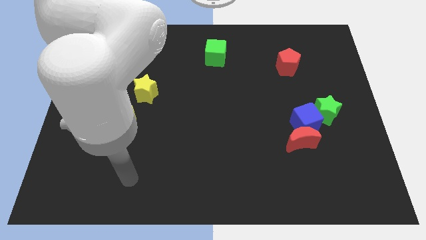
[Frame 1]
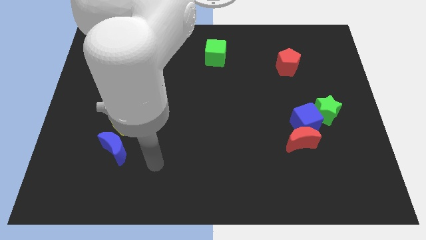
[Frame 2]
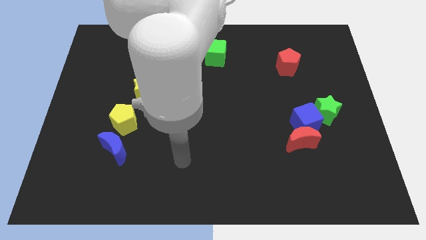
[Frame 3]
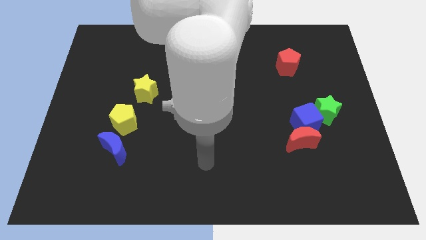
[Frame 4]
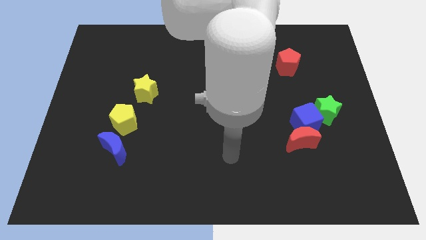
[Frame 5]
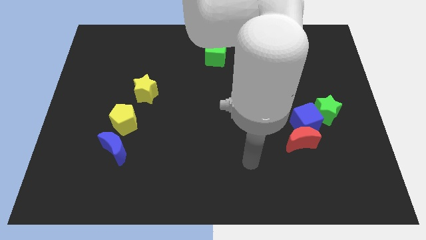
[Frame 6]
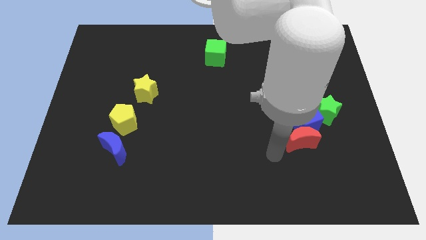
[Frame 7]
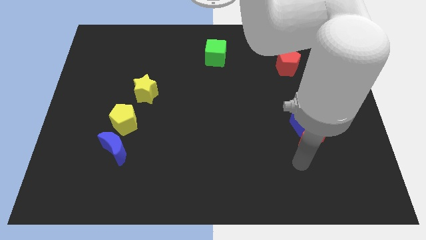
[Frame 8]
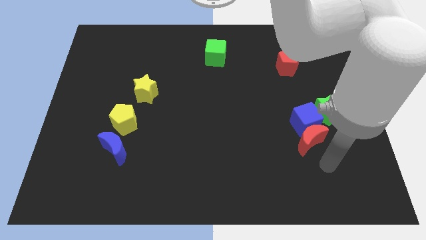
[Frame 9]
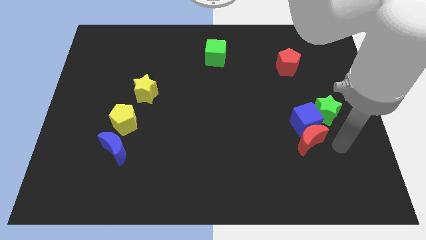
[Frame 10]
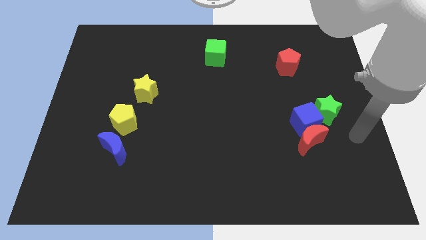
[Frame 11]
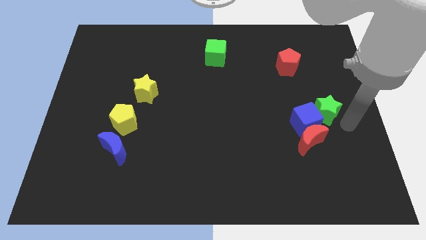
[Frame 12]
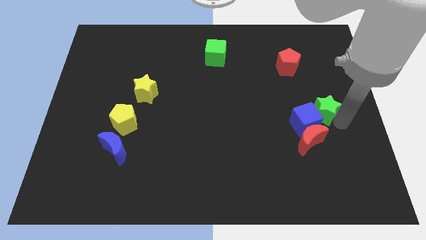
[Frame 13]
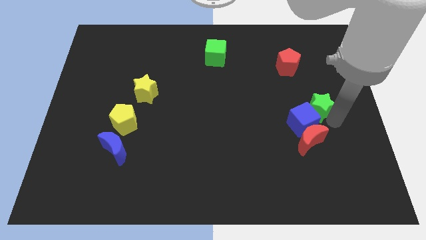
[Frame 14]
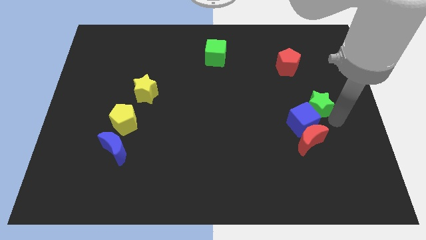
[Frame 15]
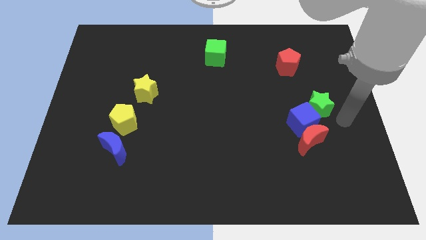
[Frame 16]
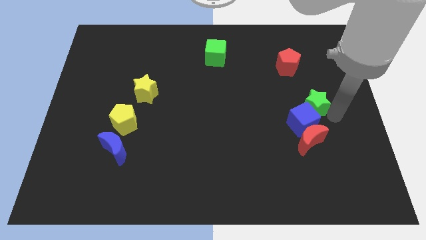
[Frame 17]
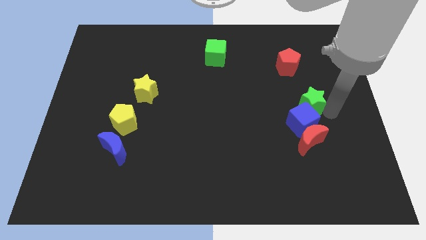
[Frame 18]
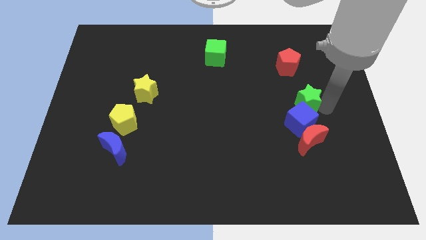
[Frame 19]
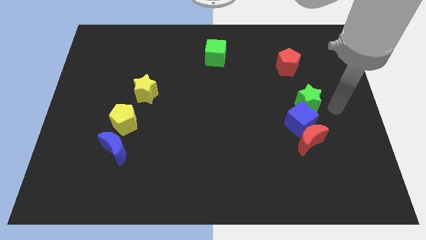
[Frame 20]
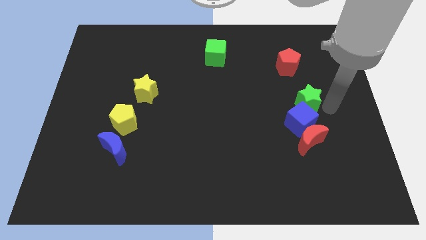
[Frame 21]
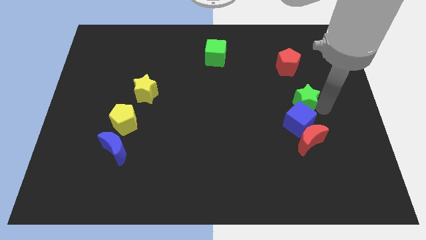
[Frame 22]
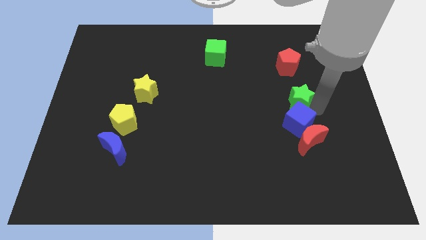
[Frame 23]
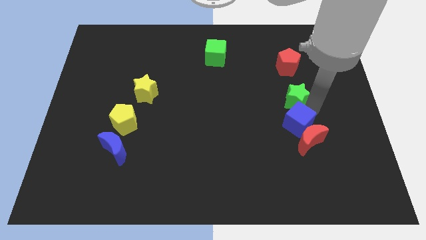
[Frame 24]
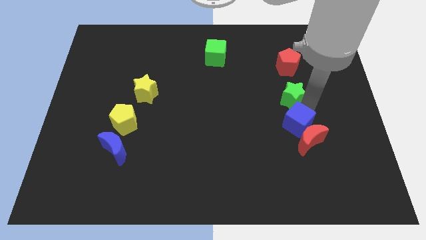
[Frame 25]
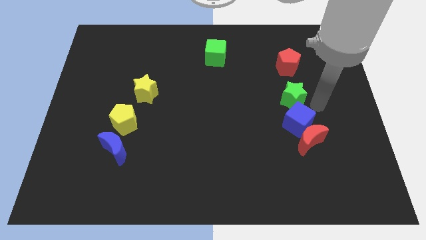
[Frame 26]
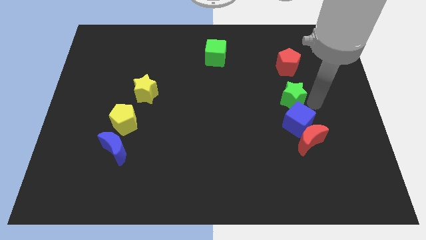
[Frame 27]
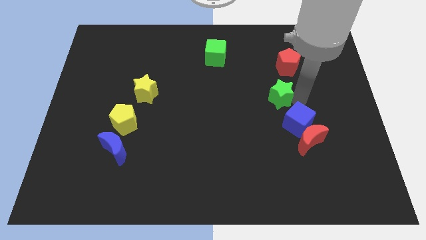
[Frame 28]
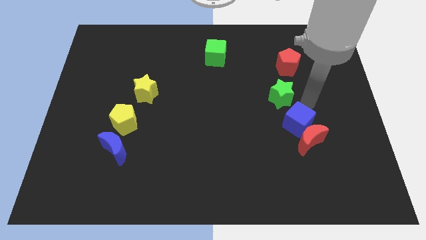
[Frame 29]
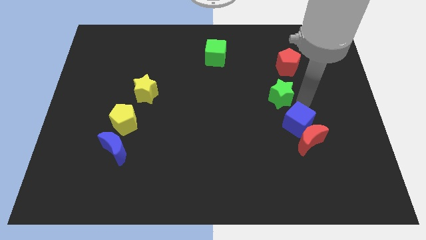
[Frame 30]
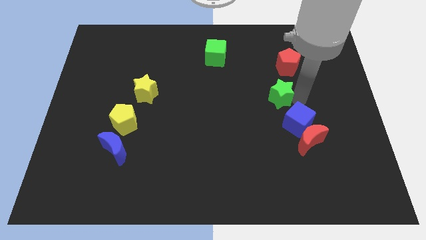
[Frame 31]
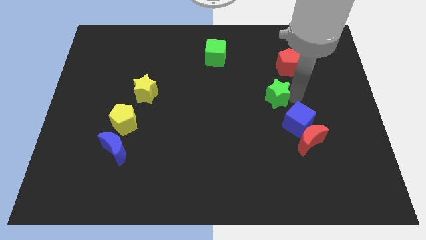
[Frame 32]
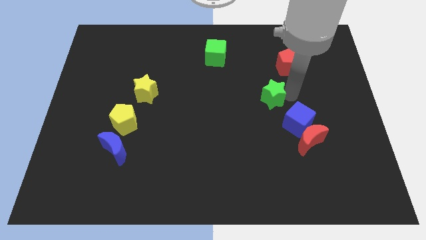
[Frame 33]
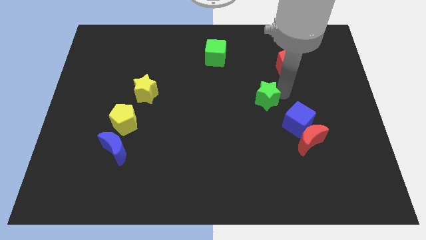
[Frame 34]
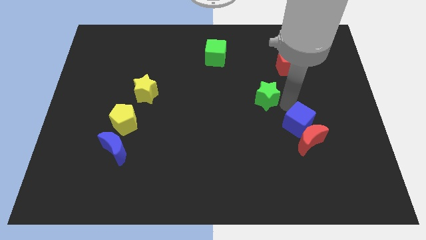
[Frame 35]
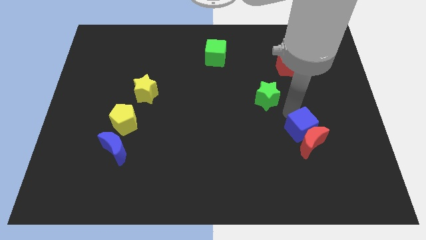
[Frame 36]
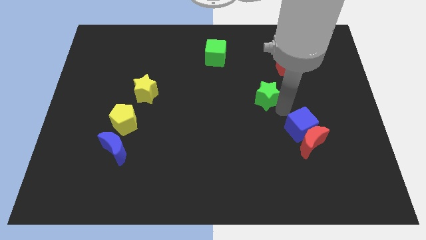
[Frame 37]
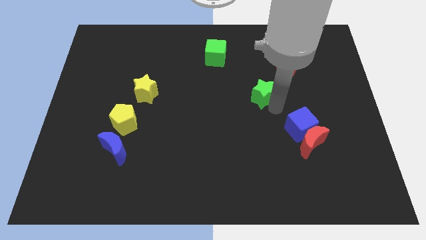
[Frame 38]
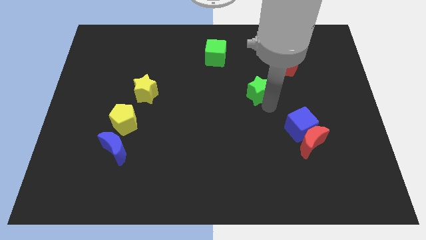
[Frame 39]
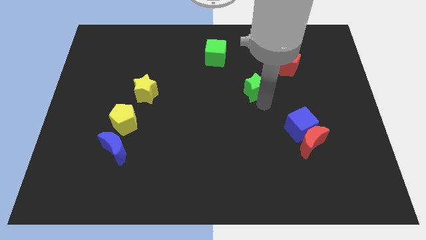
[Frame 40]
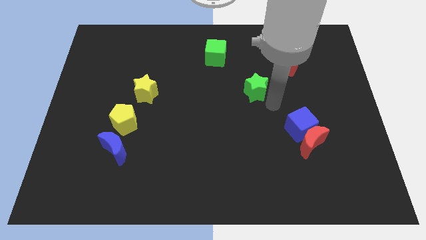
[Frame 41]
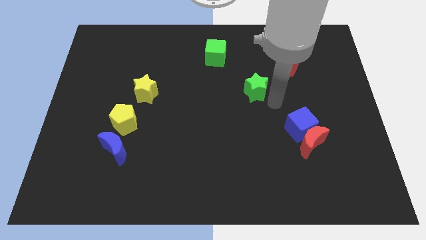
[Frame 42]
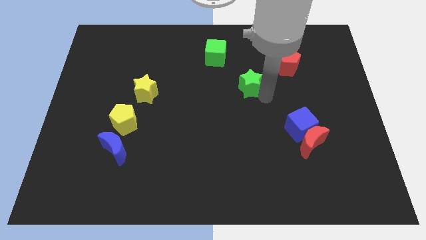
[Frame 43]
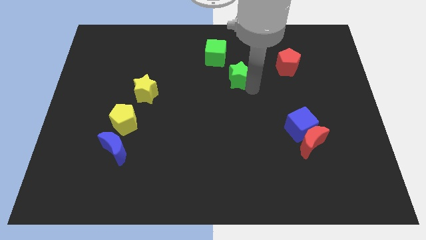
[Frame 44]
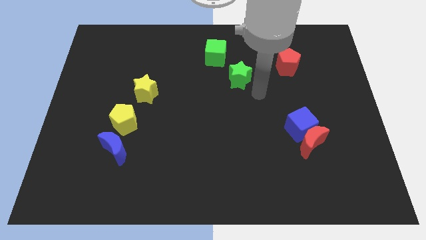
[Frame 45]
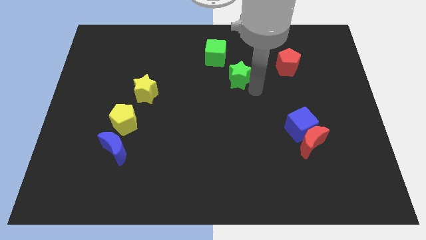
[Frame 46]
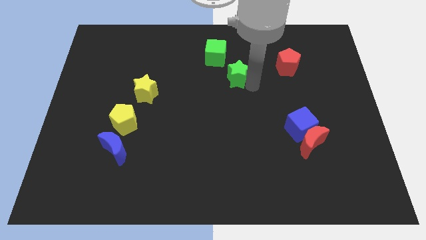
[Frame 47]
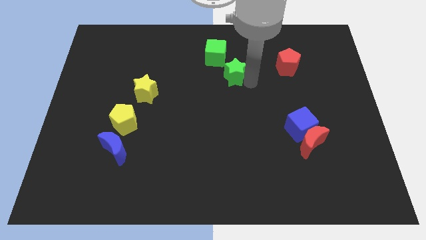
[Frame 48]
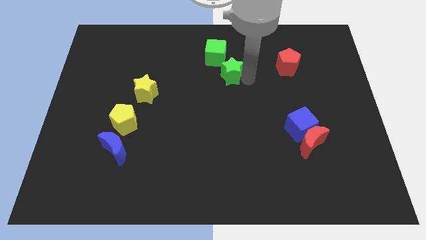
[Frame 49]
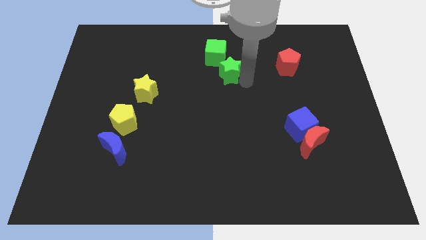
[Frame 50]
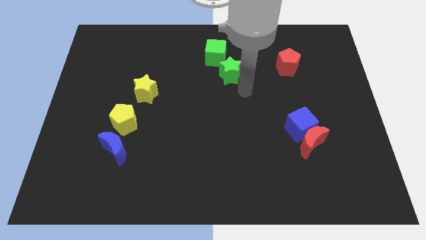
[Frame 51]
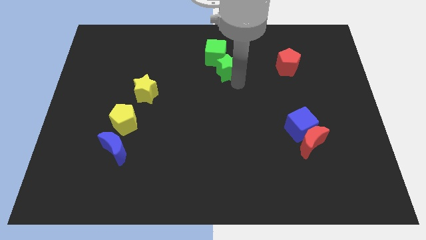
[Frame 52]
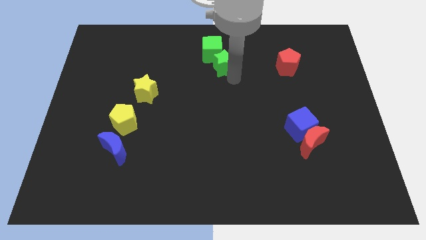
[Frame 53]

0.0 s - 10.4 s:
slide the green star next to the green cube

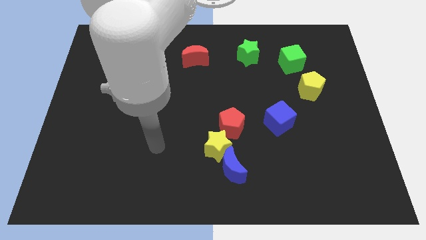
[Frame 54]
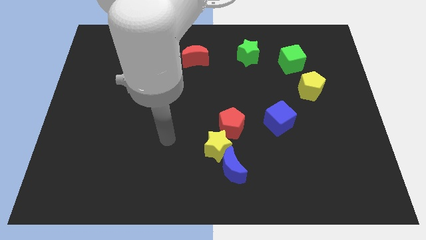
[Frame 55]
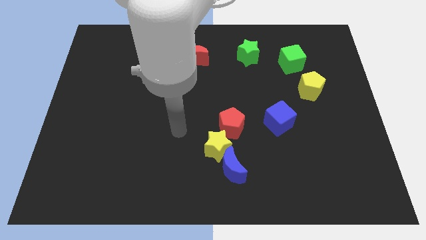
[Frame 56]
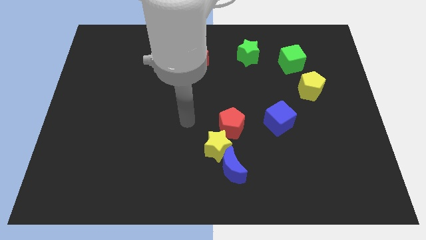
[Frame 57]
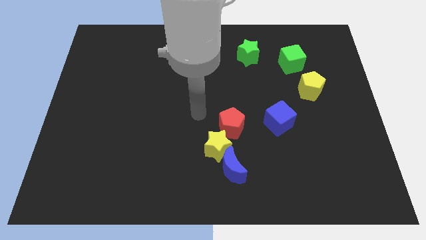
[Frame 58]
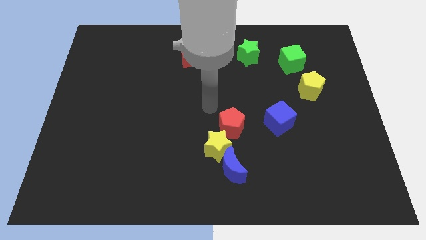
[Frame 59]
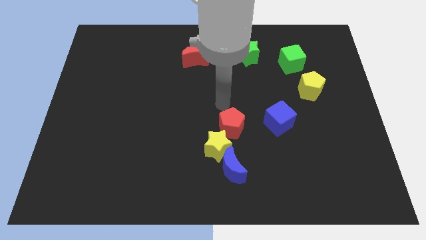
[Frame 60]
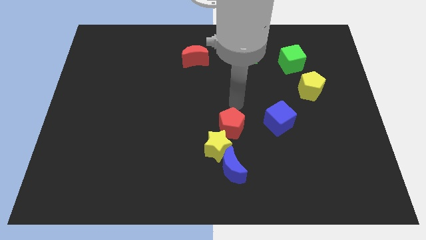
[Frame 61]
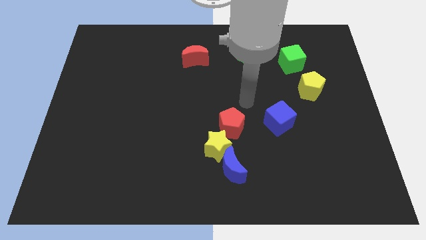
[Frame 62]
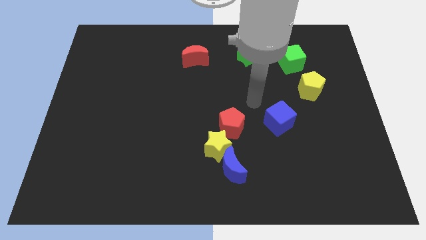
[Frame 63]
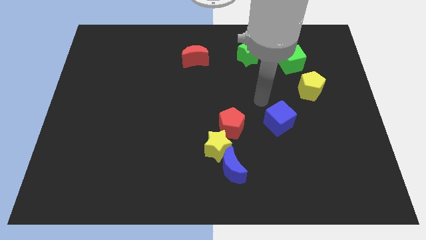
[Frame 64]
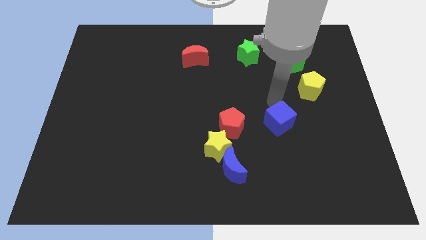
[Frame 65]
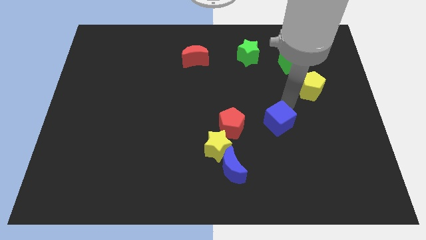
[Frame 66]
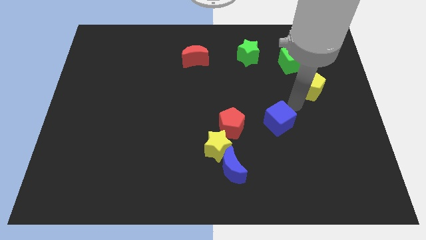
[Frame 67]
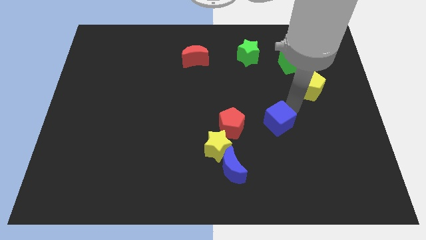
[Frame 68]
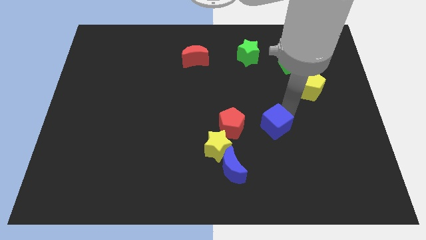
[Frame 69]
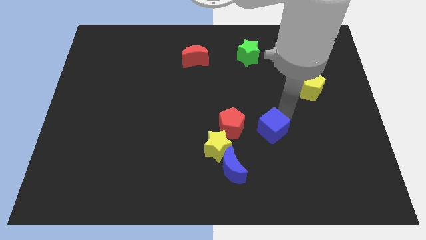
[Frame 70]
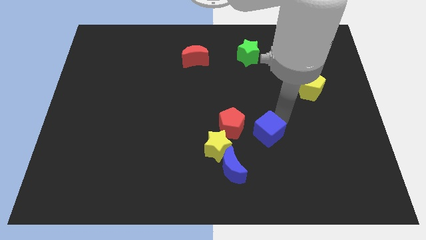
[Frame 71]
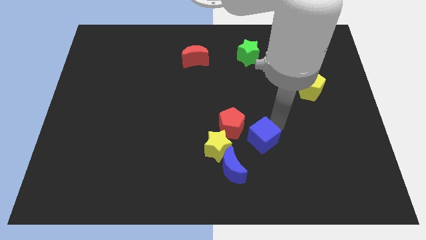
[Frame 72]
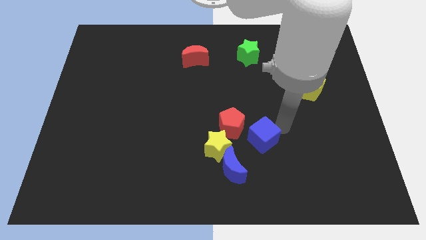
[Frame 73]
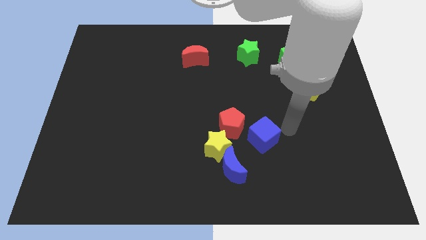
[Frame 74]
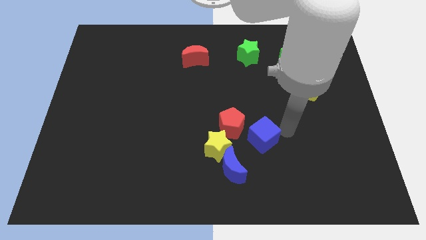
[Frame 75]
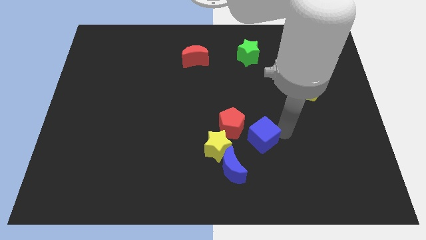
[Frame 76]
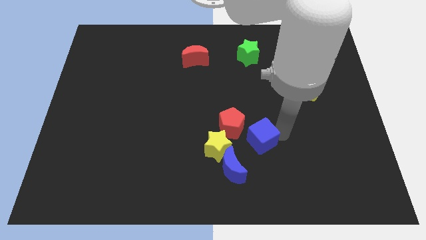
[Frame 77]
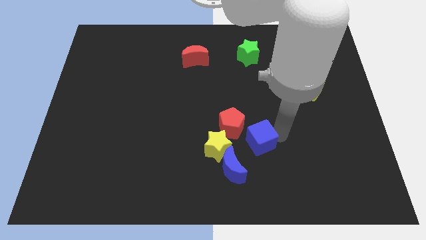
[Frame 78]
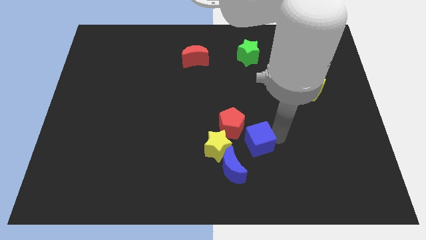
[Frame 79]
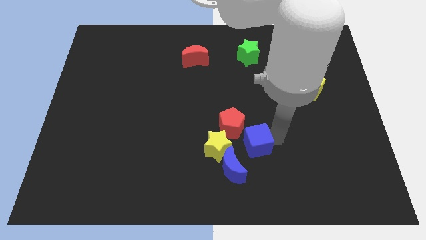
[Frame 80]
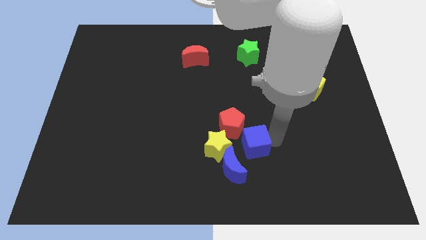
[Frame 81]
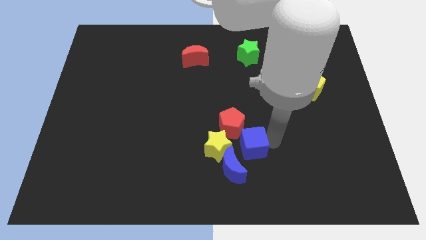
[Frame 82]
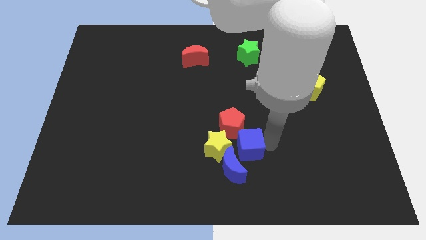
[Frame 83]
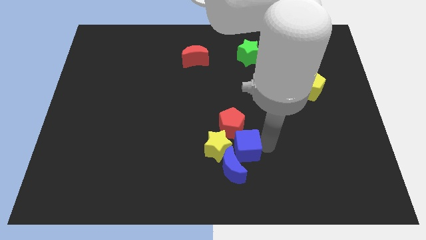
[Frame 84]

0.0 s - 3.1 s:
move the blue cube close to the yellow star
